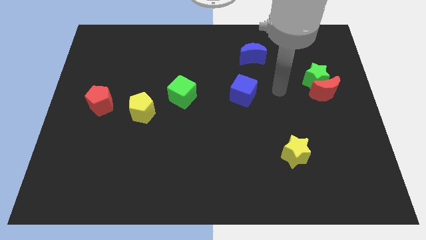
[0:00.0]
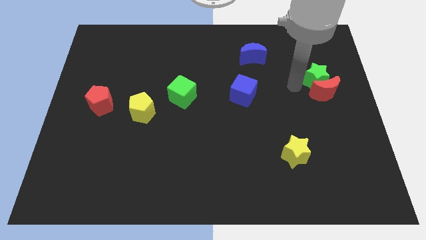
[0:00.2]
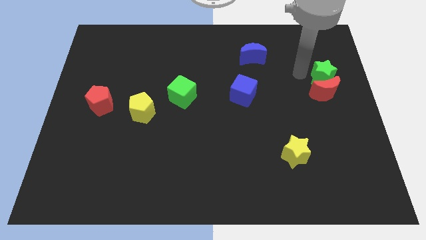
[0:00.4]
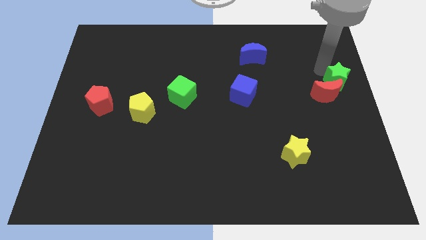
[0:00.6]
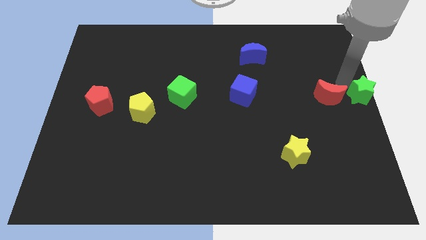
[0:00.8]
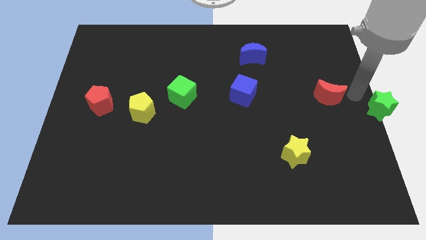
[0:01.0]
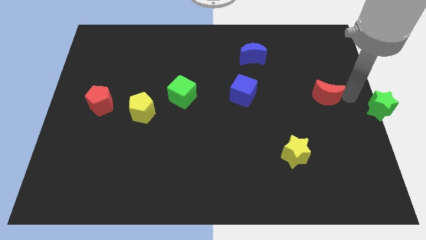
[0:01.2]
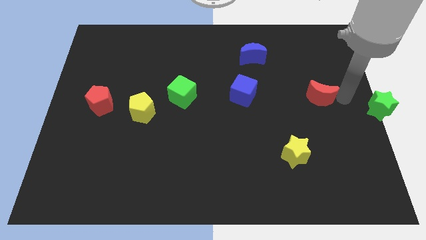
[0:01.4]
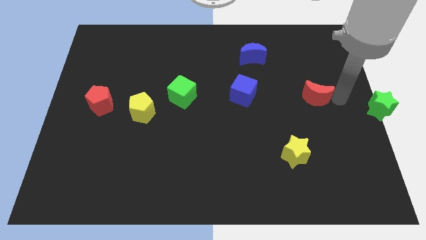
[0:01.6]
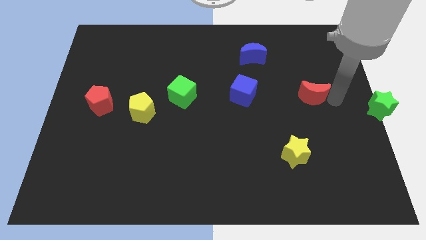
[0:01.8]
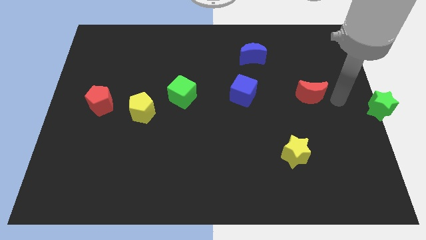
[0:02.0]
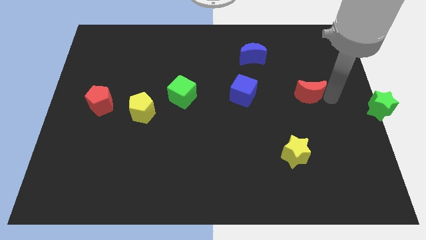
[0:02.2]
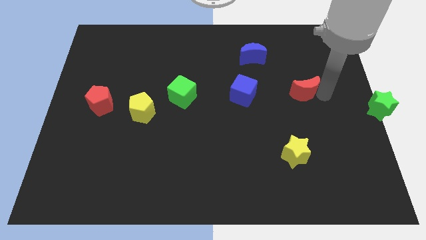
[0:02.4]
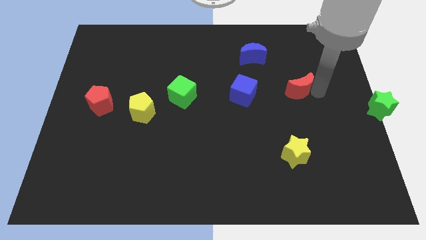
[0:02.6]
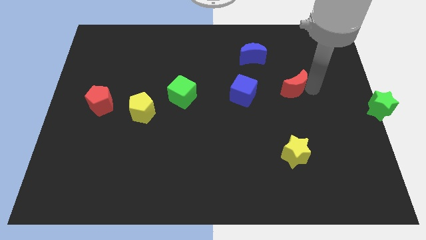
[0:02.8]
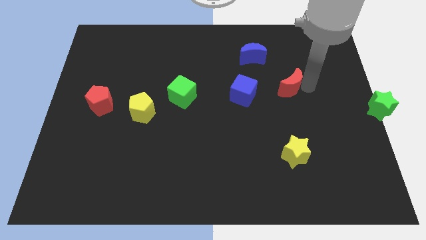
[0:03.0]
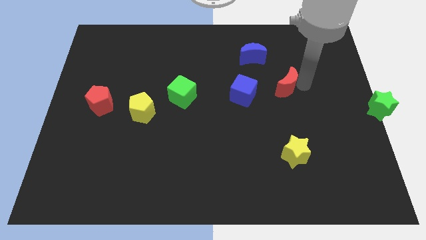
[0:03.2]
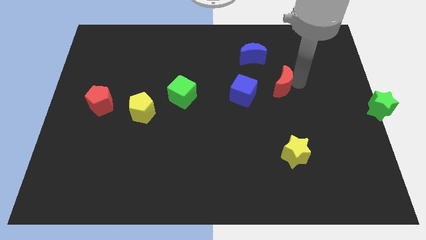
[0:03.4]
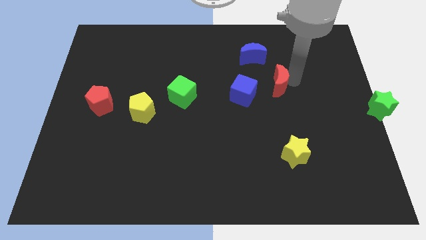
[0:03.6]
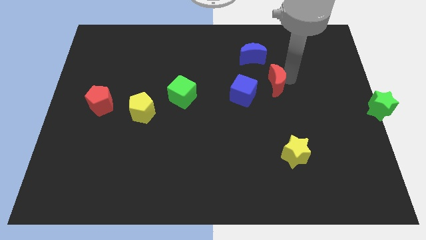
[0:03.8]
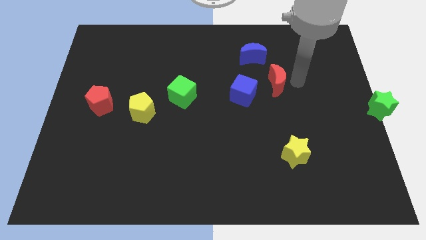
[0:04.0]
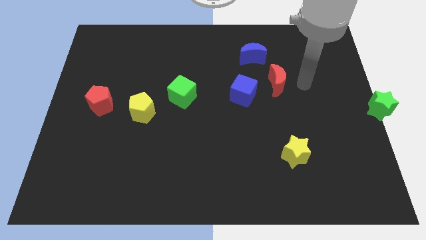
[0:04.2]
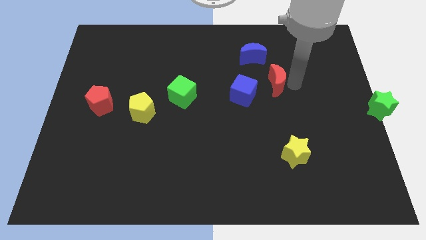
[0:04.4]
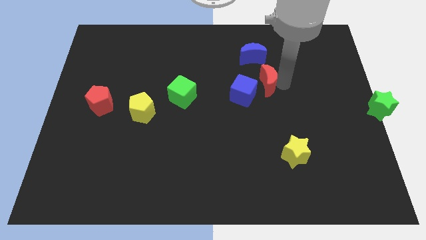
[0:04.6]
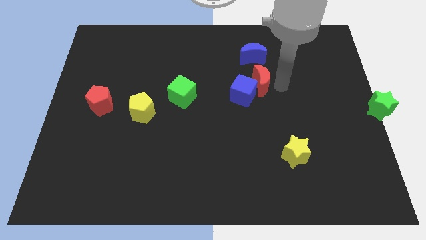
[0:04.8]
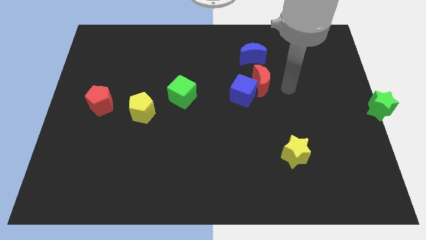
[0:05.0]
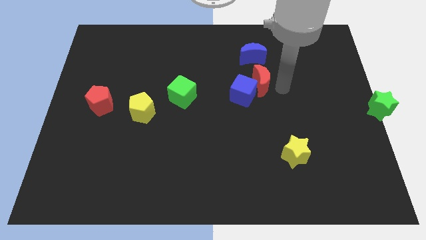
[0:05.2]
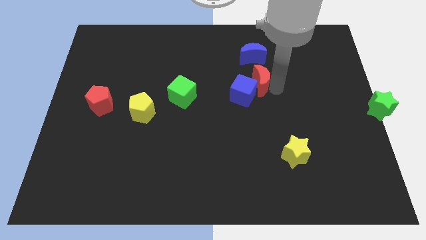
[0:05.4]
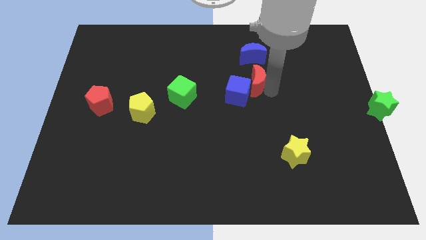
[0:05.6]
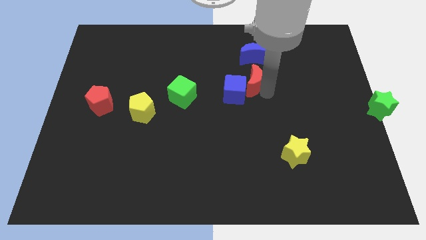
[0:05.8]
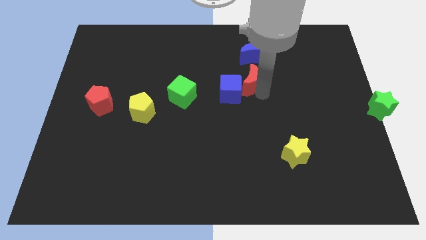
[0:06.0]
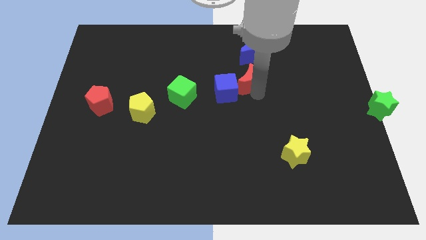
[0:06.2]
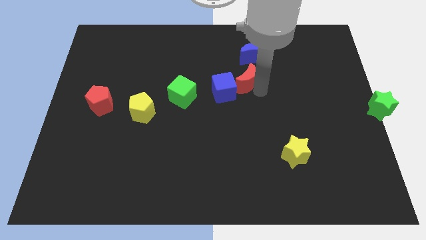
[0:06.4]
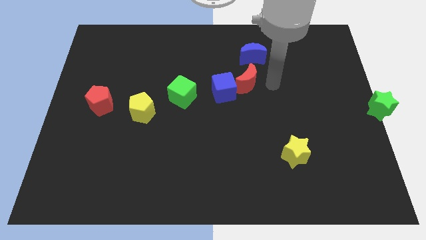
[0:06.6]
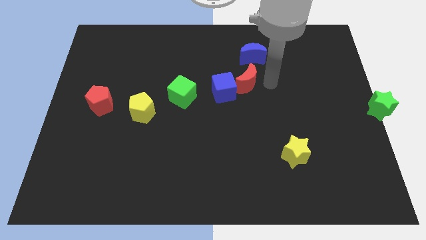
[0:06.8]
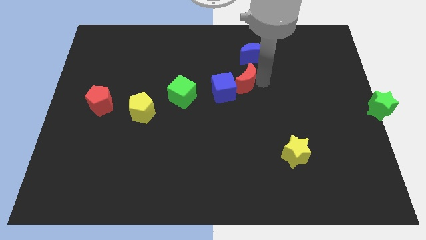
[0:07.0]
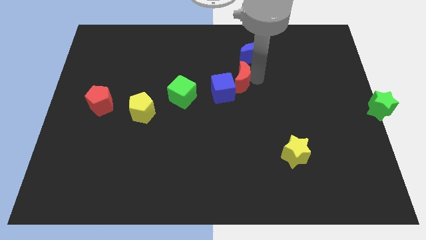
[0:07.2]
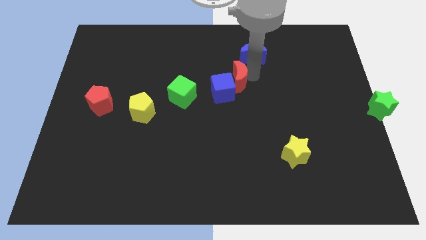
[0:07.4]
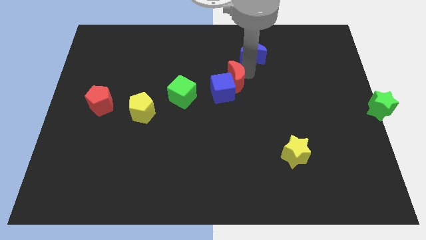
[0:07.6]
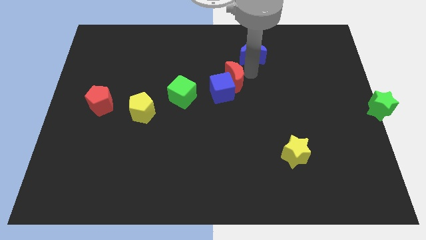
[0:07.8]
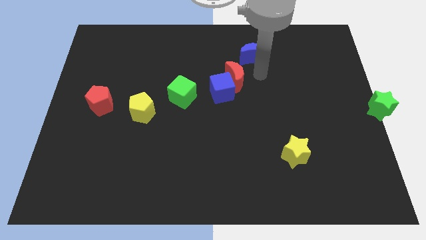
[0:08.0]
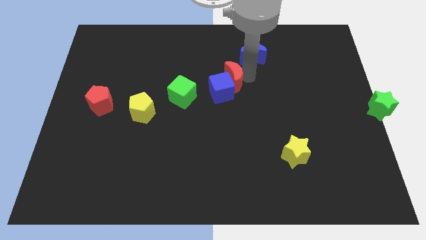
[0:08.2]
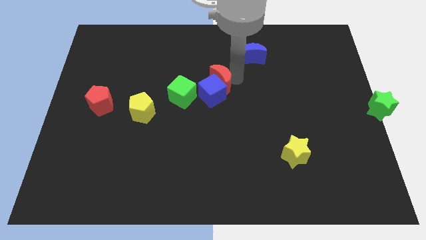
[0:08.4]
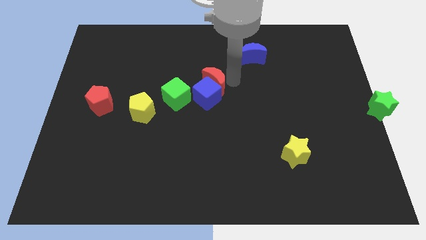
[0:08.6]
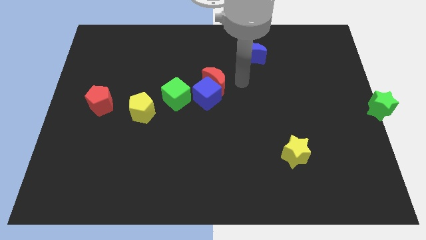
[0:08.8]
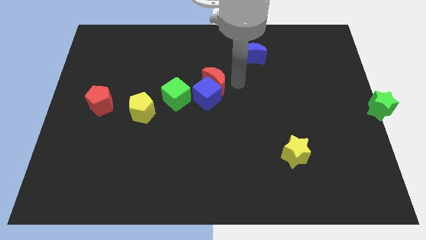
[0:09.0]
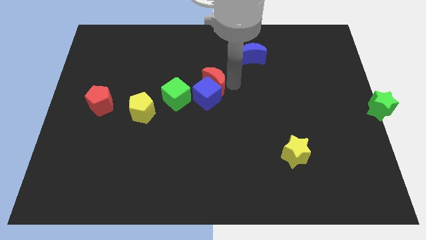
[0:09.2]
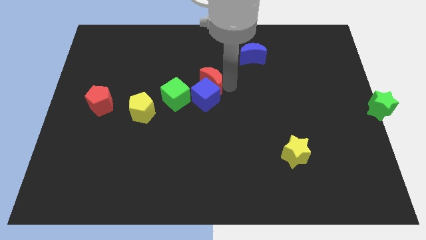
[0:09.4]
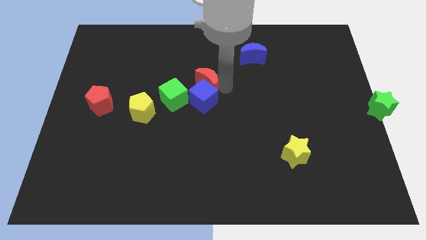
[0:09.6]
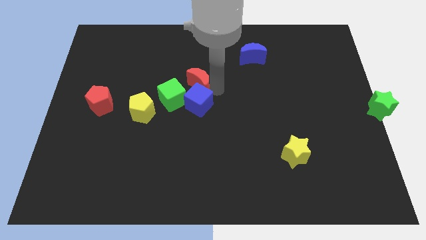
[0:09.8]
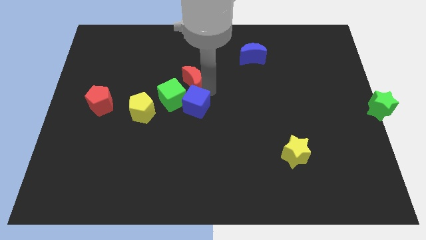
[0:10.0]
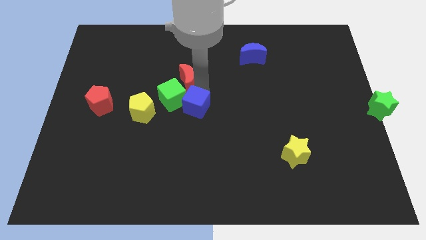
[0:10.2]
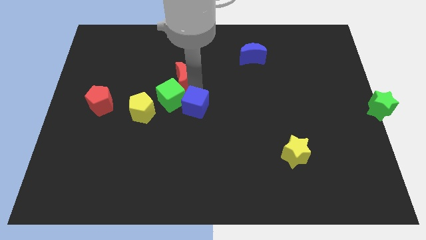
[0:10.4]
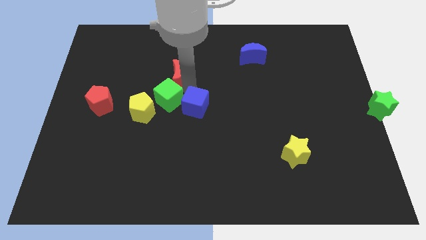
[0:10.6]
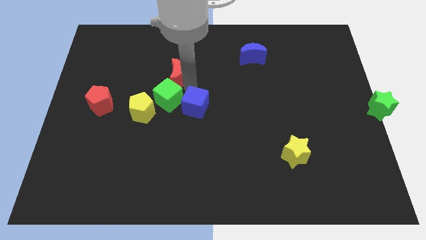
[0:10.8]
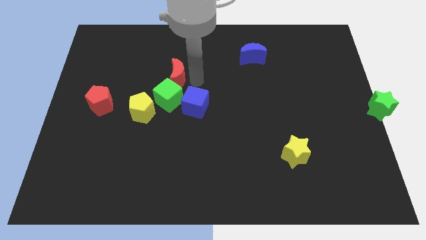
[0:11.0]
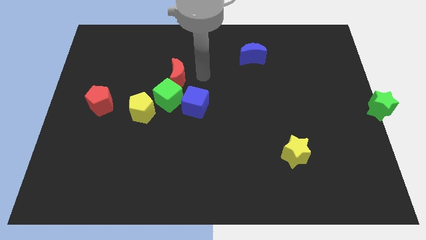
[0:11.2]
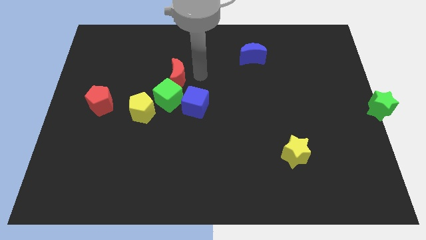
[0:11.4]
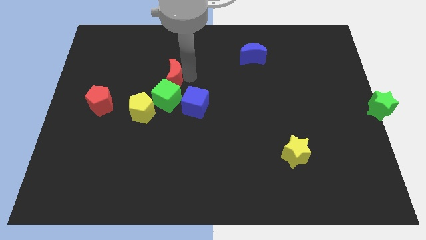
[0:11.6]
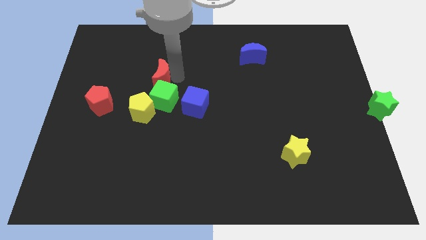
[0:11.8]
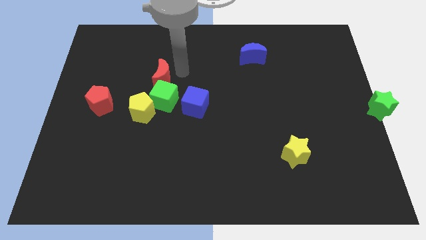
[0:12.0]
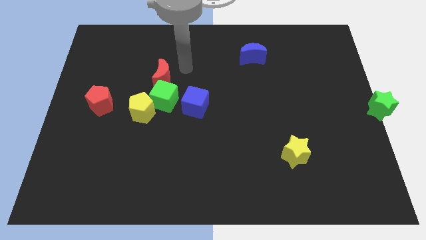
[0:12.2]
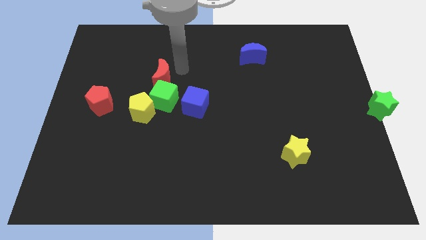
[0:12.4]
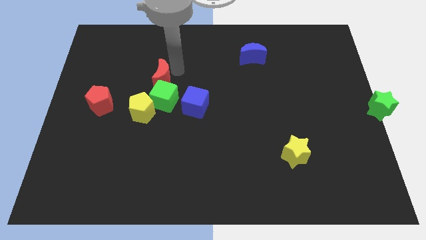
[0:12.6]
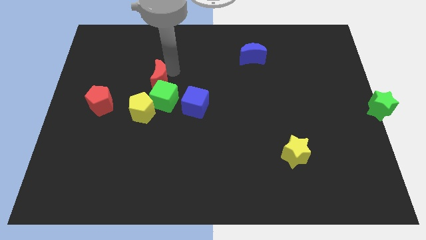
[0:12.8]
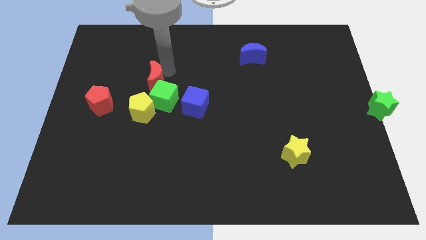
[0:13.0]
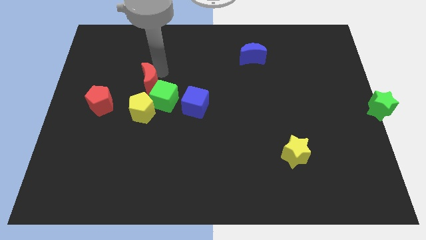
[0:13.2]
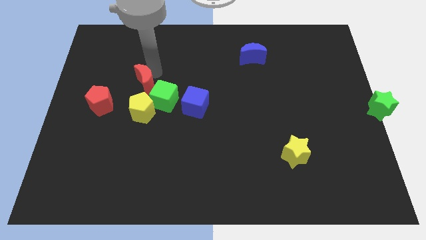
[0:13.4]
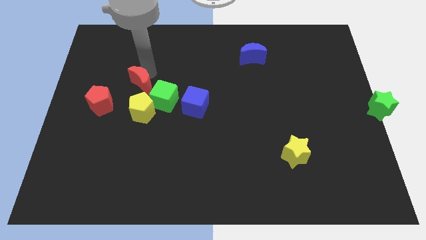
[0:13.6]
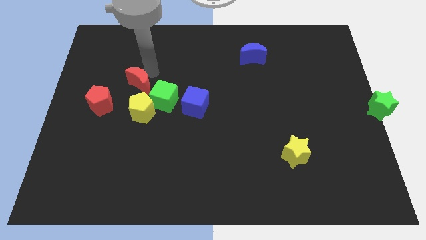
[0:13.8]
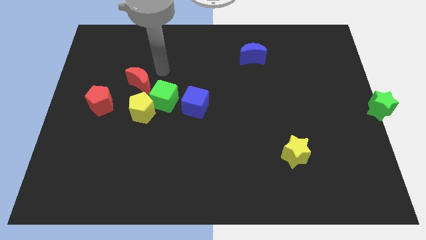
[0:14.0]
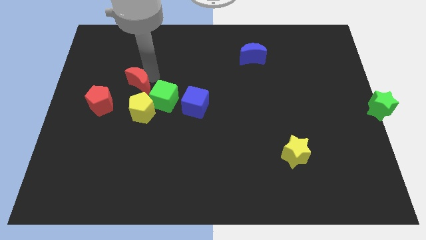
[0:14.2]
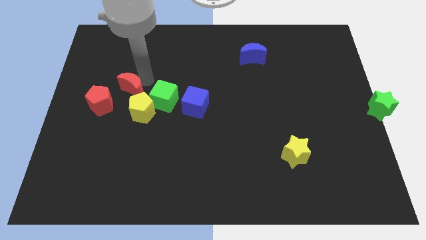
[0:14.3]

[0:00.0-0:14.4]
move the red moon to the top left of the yellow pentagon

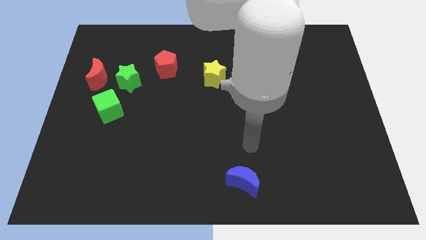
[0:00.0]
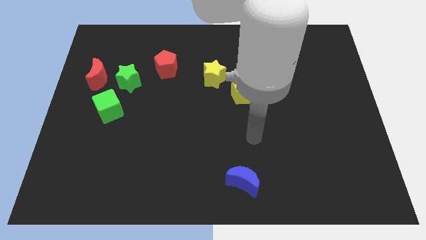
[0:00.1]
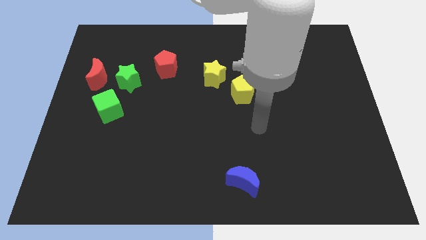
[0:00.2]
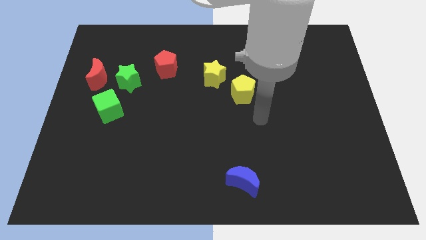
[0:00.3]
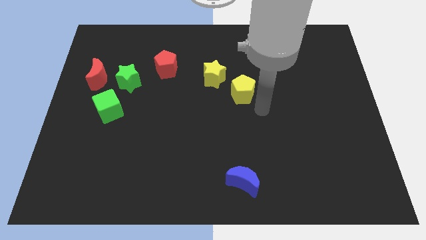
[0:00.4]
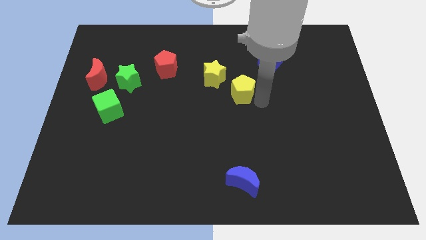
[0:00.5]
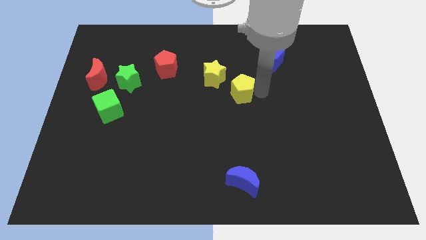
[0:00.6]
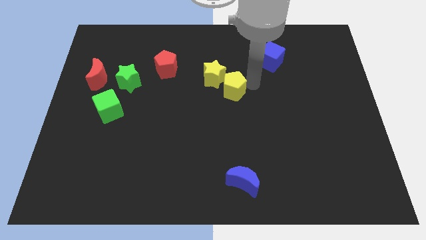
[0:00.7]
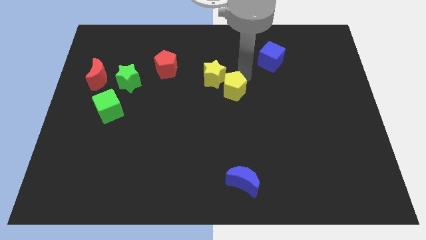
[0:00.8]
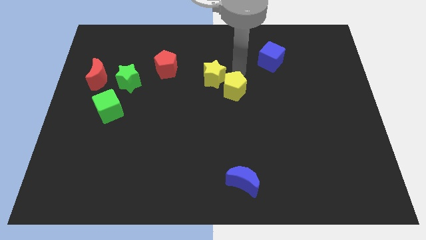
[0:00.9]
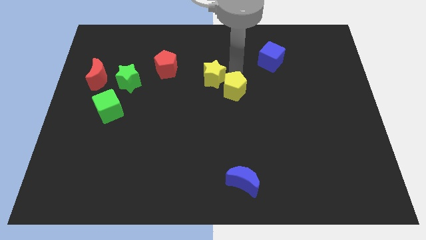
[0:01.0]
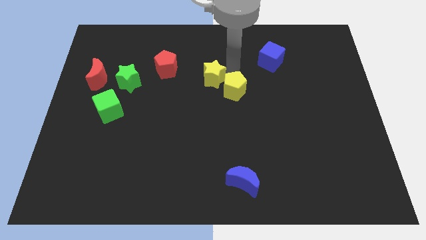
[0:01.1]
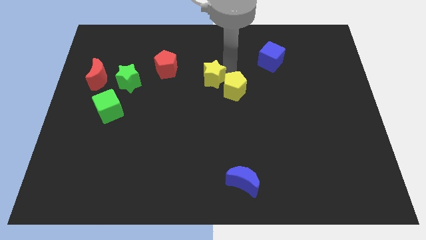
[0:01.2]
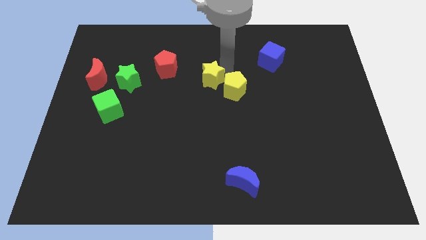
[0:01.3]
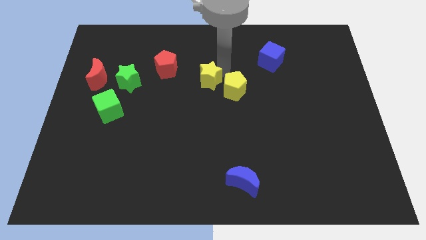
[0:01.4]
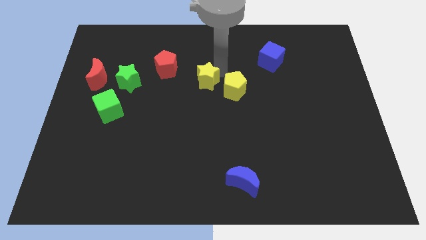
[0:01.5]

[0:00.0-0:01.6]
move the yellow star to the bottom right side of the red pentagon
